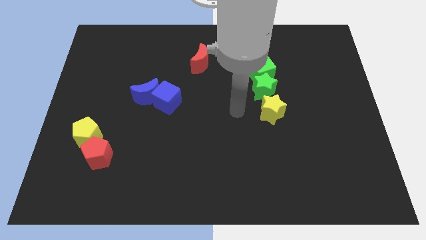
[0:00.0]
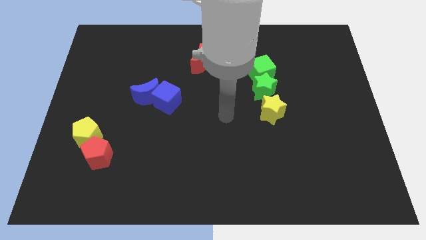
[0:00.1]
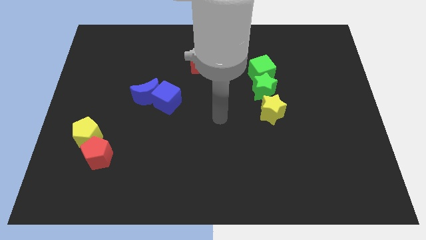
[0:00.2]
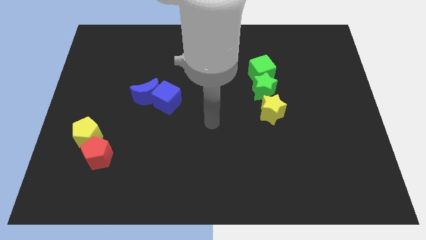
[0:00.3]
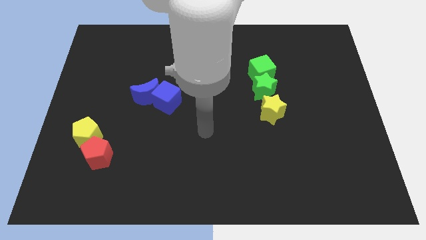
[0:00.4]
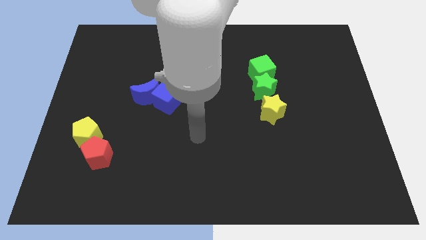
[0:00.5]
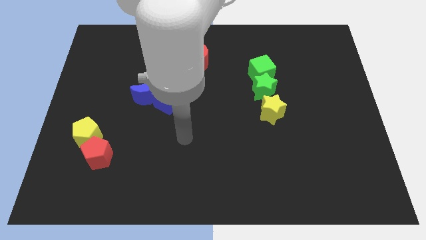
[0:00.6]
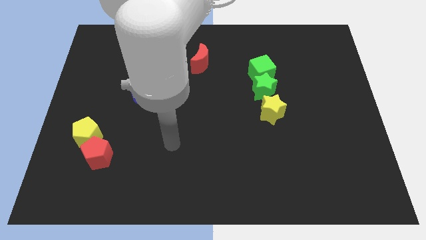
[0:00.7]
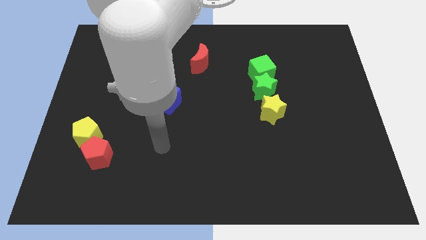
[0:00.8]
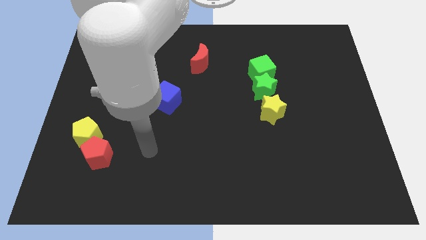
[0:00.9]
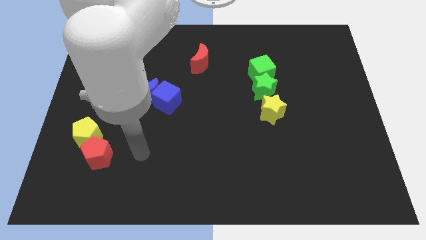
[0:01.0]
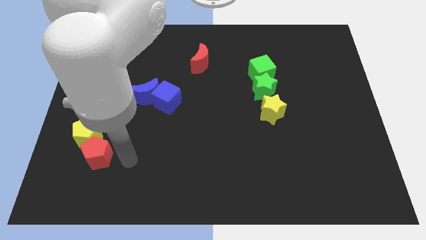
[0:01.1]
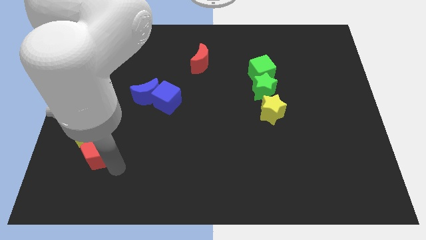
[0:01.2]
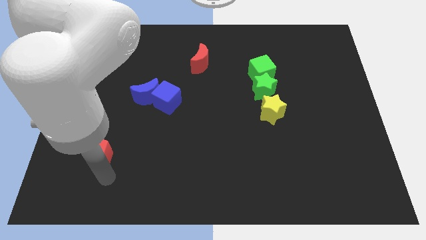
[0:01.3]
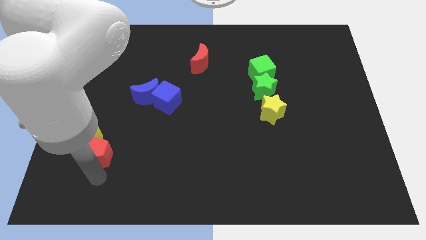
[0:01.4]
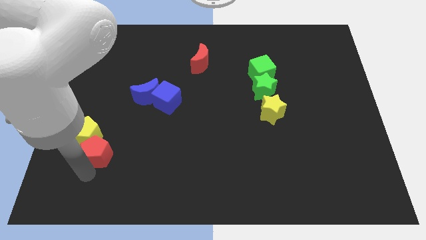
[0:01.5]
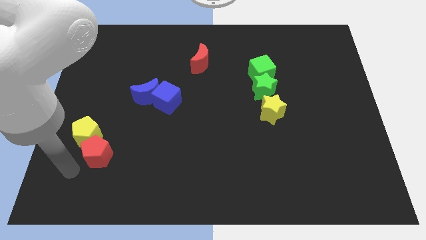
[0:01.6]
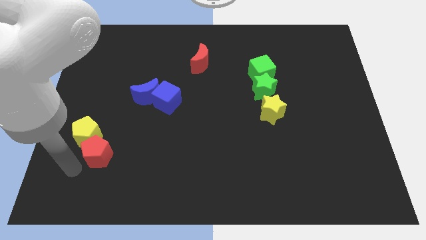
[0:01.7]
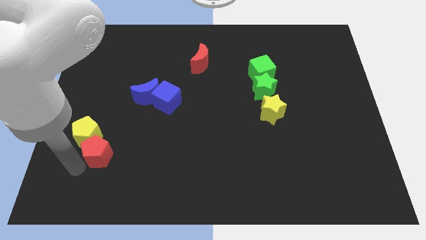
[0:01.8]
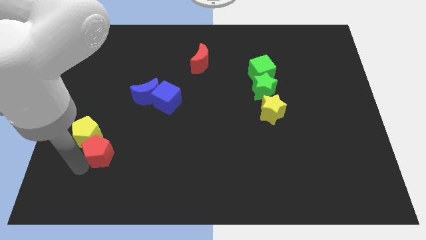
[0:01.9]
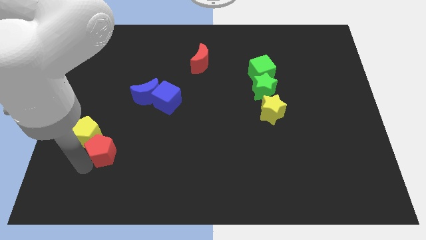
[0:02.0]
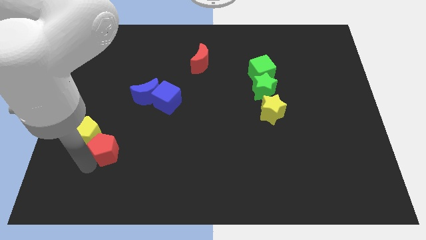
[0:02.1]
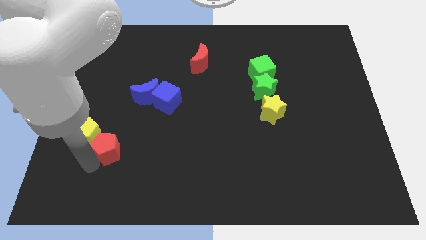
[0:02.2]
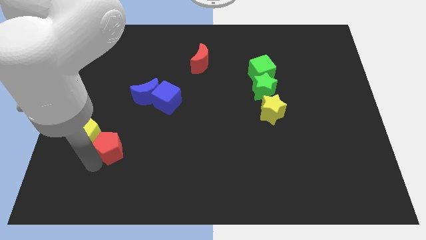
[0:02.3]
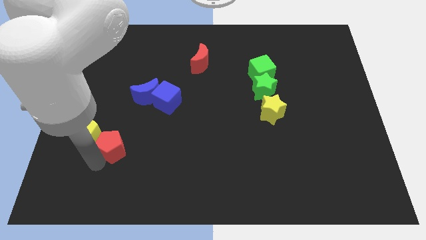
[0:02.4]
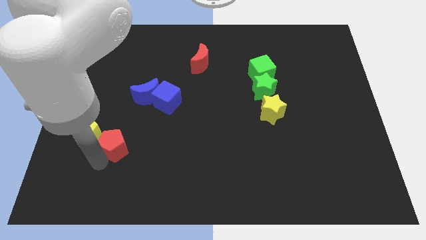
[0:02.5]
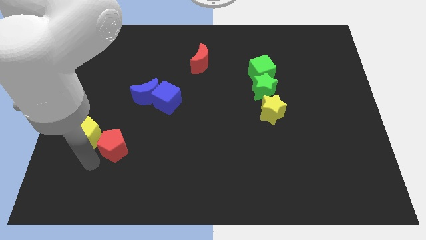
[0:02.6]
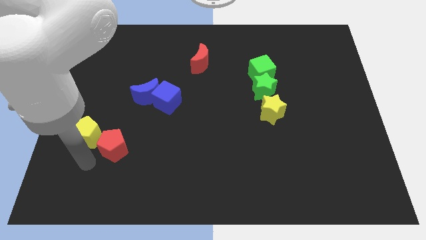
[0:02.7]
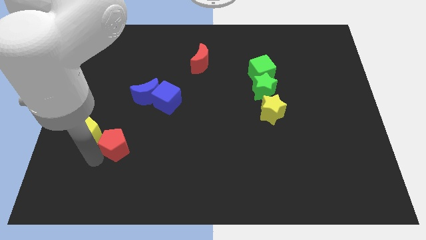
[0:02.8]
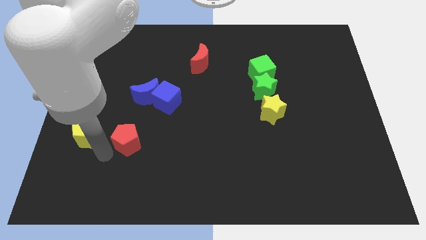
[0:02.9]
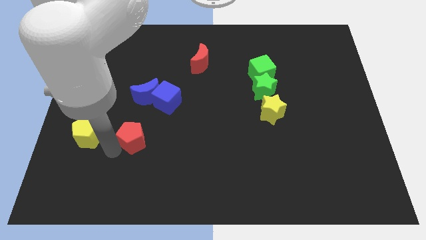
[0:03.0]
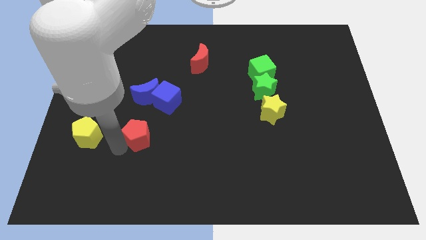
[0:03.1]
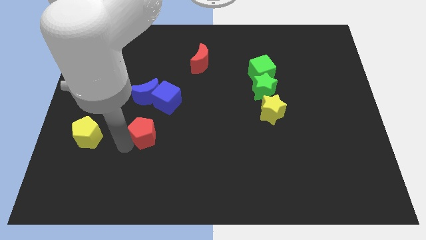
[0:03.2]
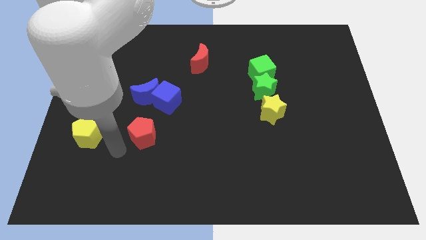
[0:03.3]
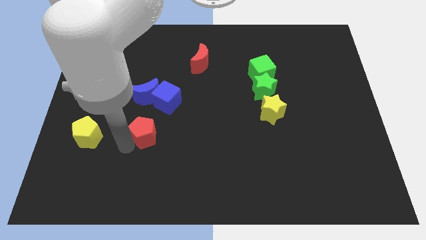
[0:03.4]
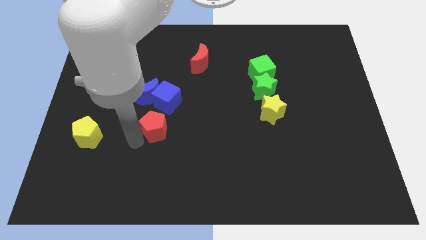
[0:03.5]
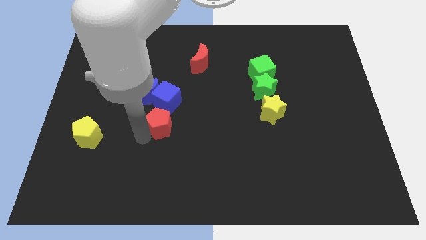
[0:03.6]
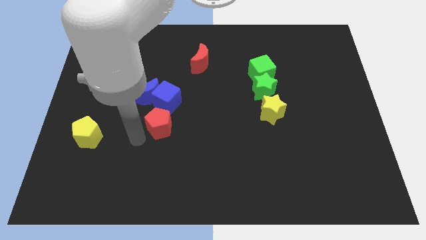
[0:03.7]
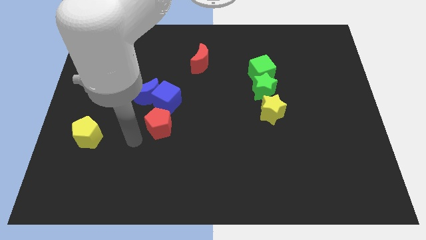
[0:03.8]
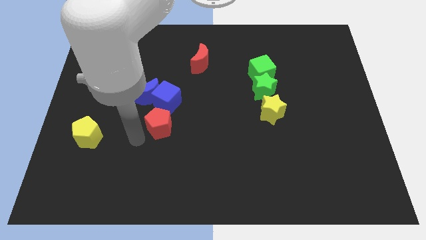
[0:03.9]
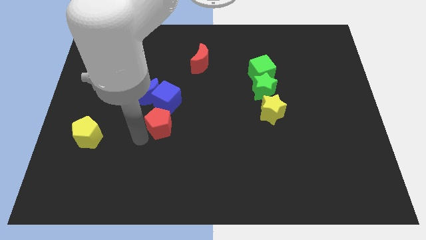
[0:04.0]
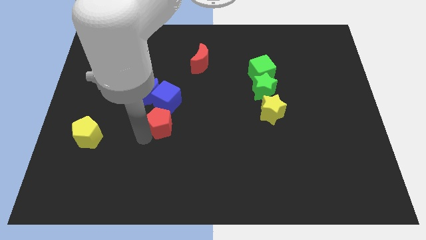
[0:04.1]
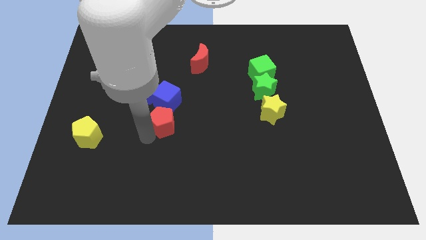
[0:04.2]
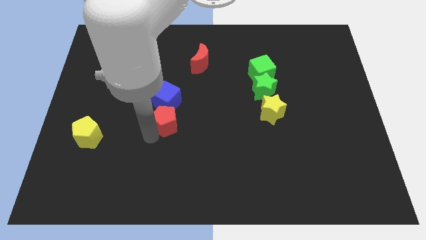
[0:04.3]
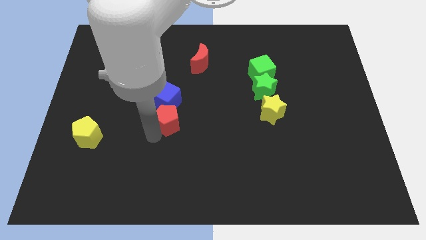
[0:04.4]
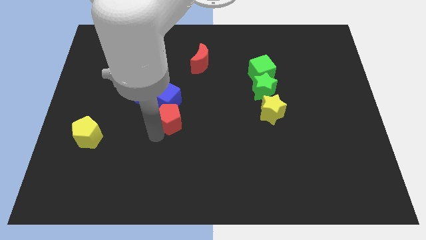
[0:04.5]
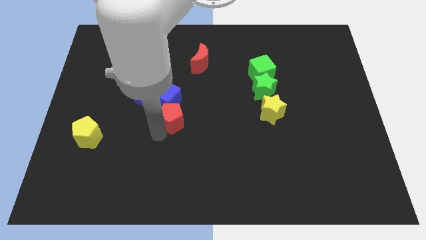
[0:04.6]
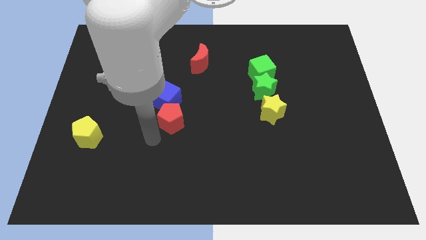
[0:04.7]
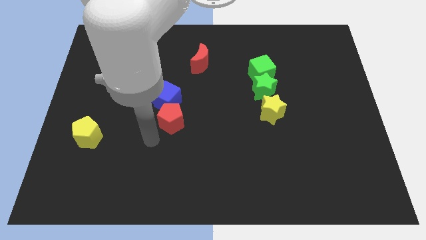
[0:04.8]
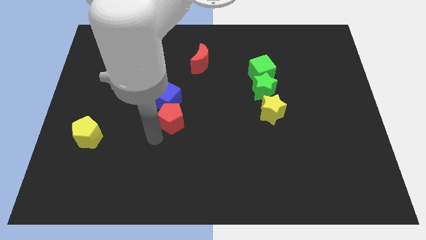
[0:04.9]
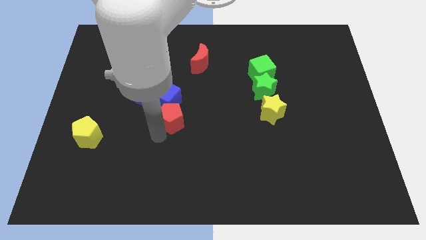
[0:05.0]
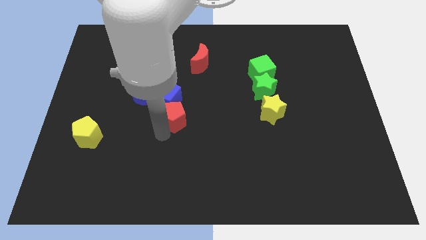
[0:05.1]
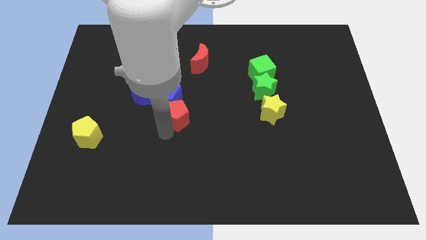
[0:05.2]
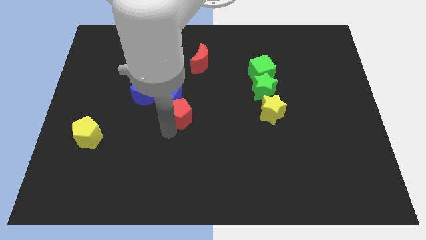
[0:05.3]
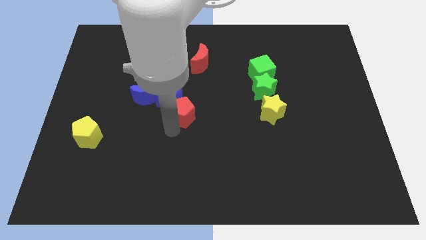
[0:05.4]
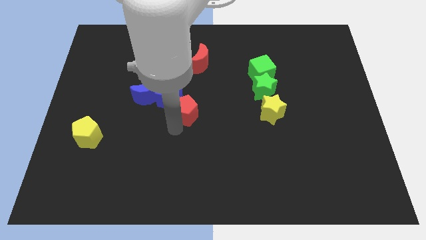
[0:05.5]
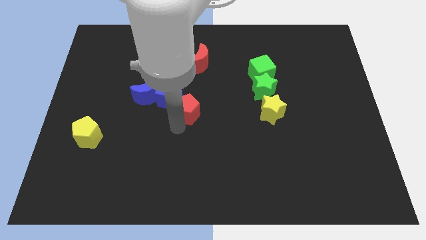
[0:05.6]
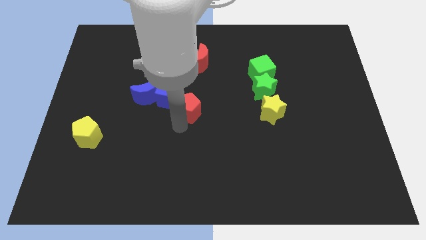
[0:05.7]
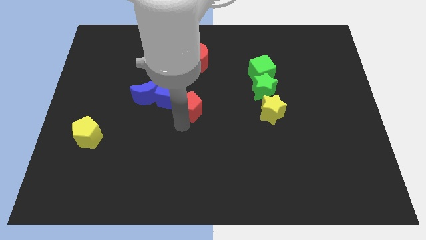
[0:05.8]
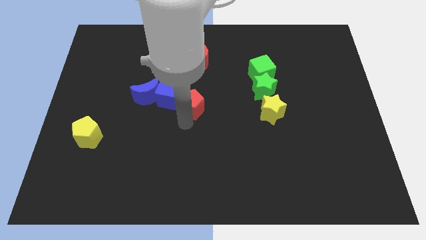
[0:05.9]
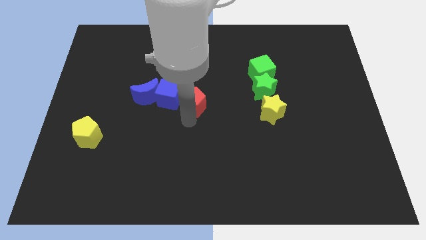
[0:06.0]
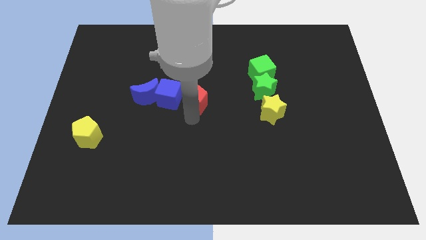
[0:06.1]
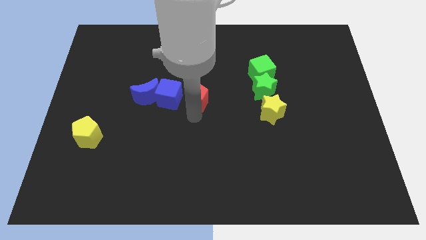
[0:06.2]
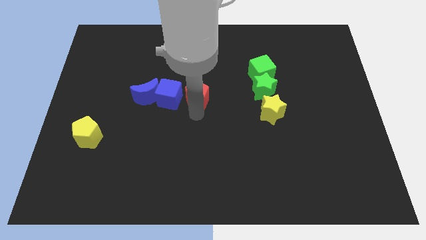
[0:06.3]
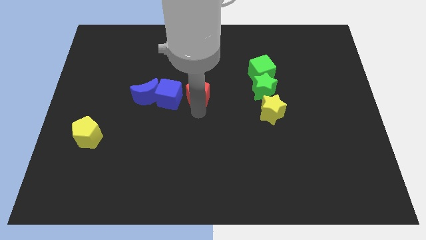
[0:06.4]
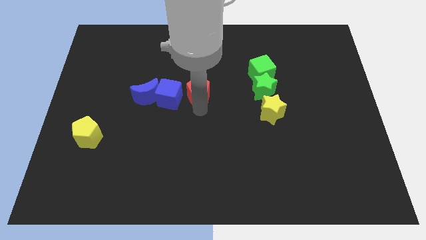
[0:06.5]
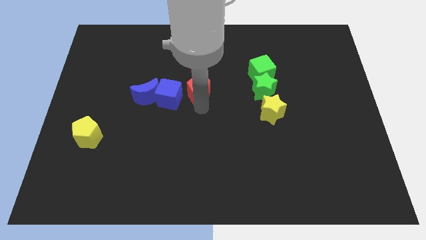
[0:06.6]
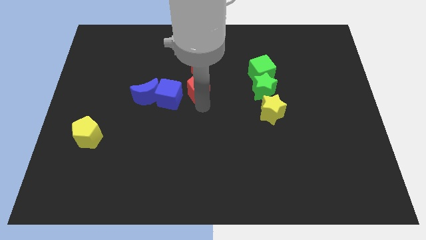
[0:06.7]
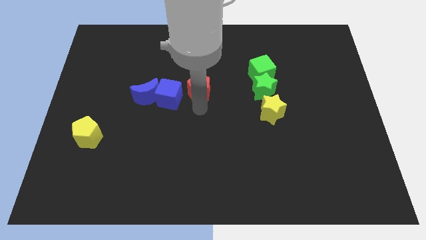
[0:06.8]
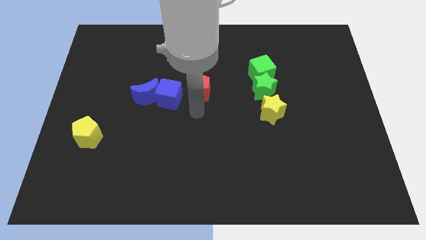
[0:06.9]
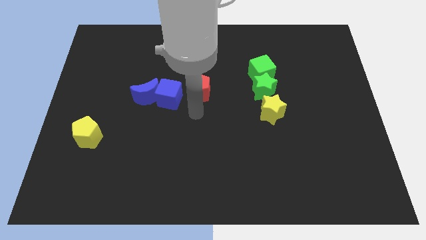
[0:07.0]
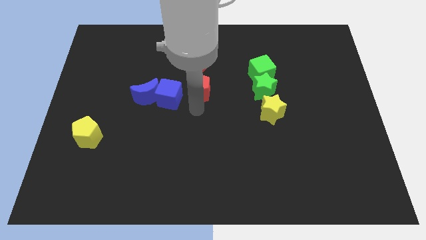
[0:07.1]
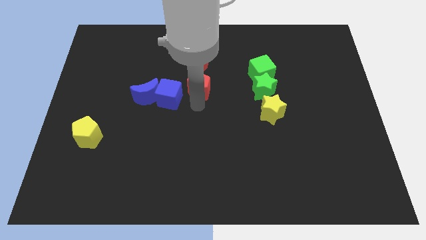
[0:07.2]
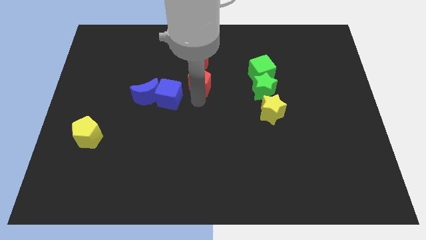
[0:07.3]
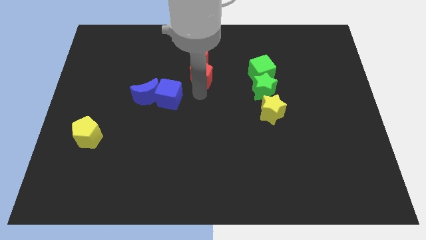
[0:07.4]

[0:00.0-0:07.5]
move the red pentagon close to the red moon
